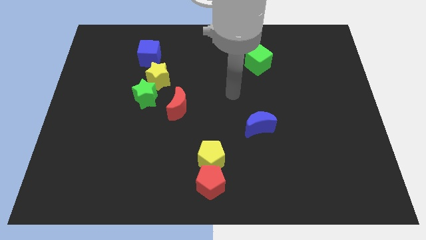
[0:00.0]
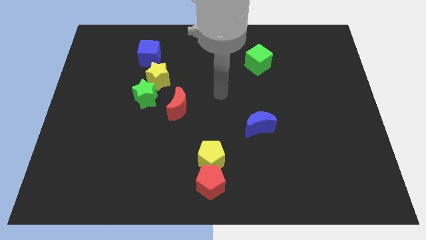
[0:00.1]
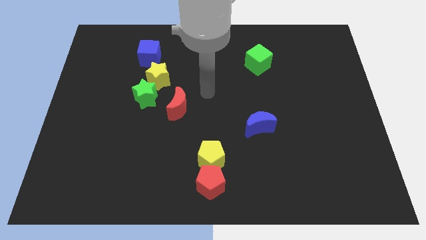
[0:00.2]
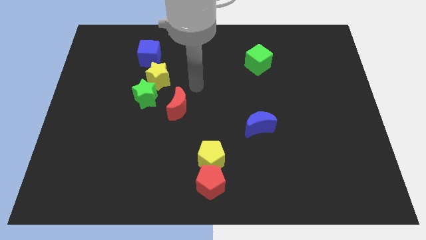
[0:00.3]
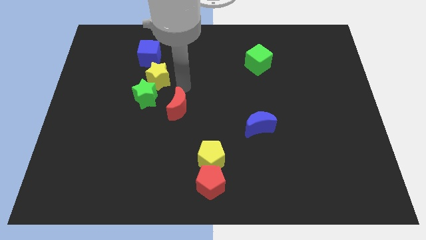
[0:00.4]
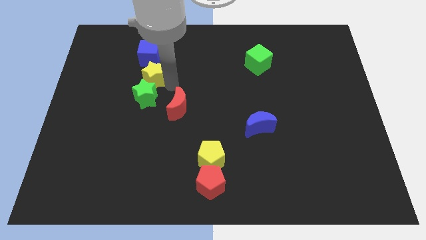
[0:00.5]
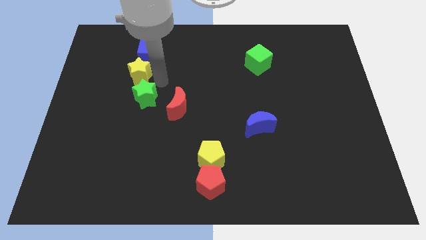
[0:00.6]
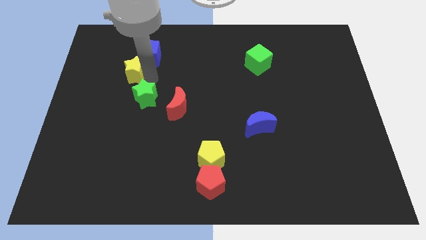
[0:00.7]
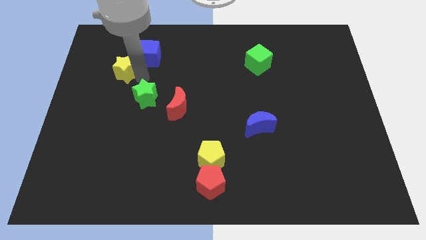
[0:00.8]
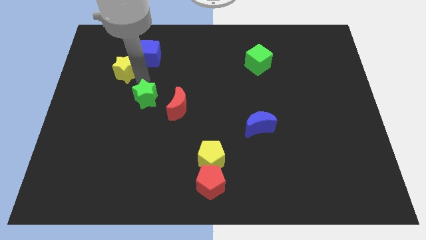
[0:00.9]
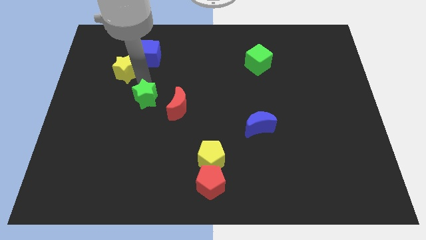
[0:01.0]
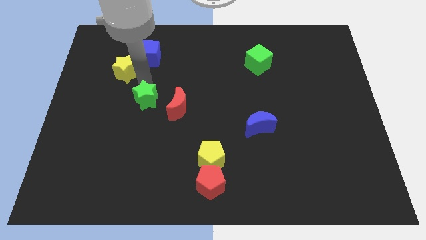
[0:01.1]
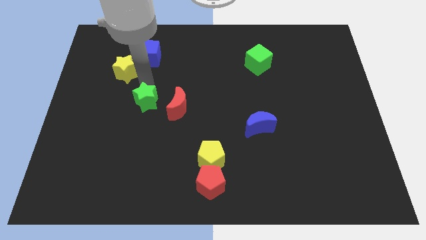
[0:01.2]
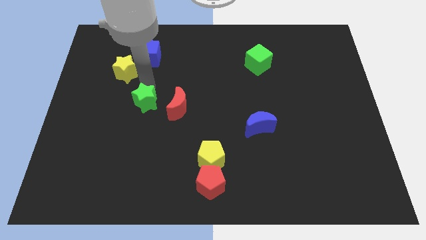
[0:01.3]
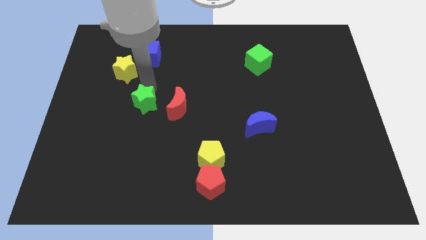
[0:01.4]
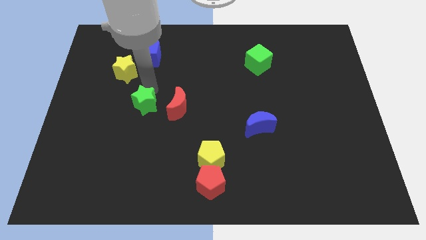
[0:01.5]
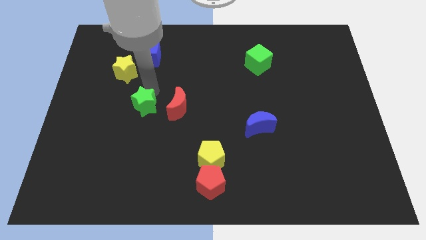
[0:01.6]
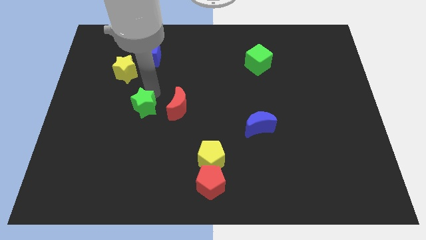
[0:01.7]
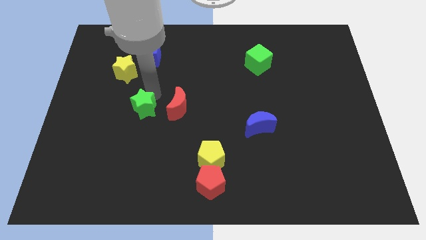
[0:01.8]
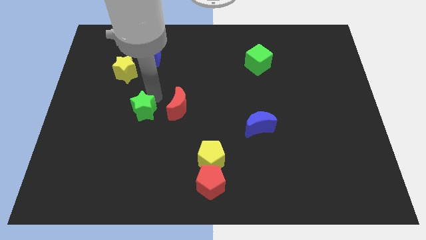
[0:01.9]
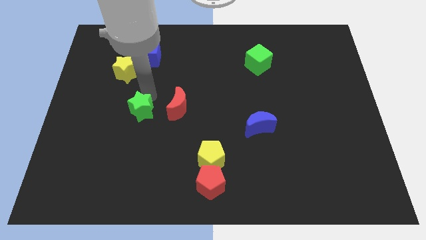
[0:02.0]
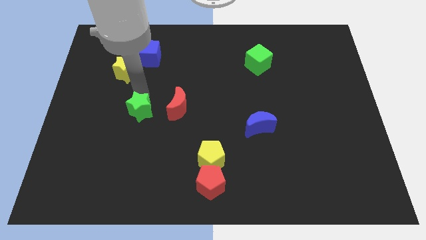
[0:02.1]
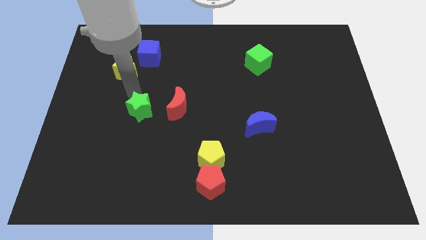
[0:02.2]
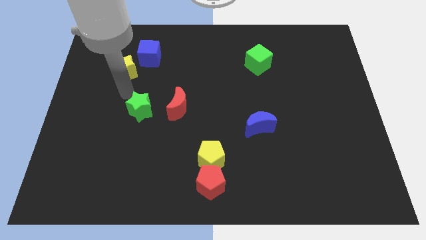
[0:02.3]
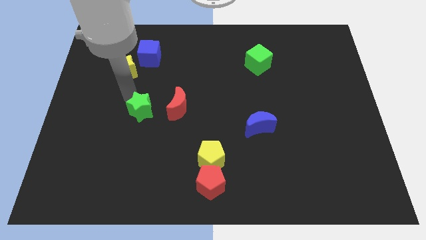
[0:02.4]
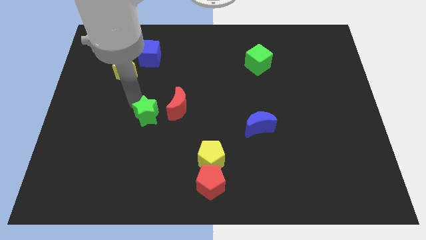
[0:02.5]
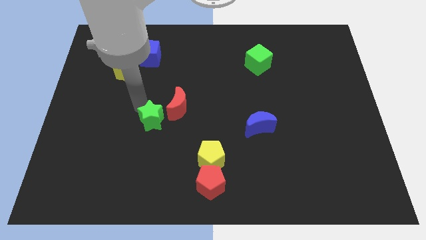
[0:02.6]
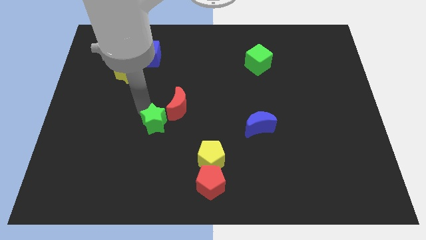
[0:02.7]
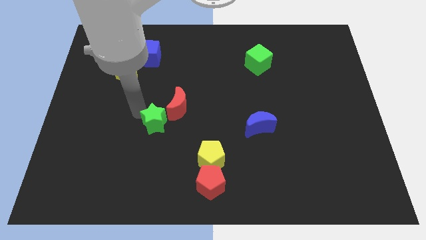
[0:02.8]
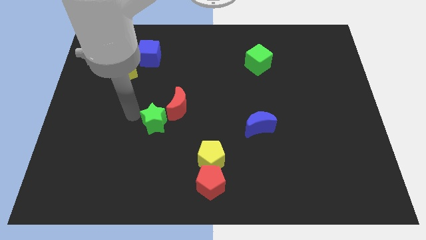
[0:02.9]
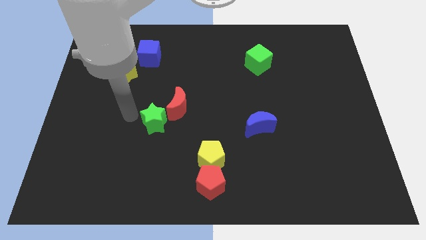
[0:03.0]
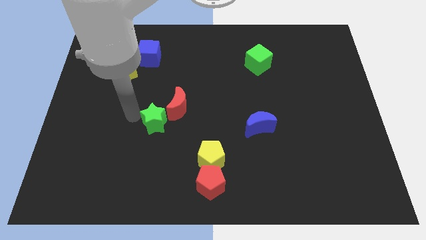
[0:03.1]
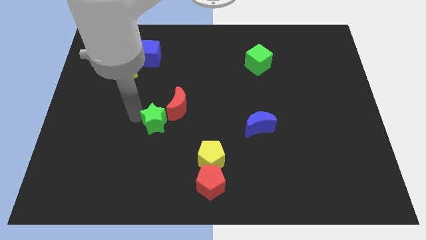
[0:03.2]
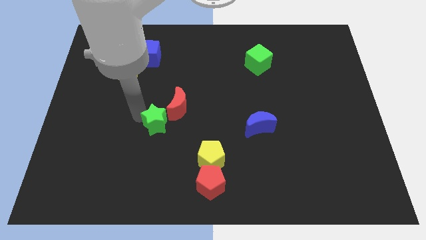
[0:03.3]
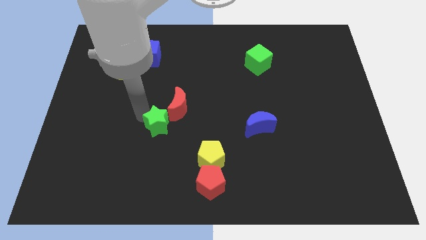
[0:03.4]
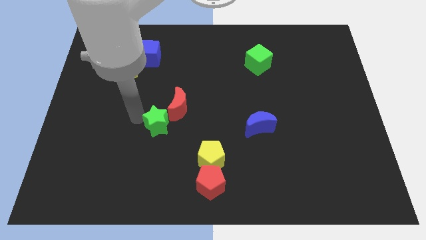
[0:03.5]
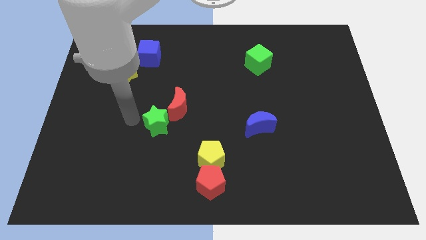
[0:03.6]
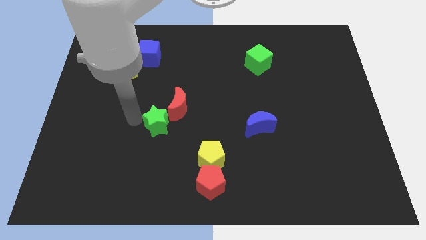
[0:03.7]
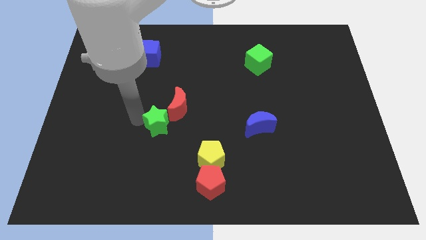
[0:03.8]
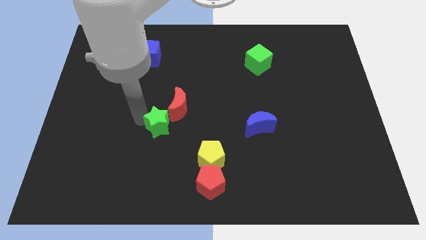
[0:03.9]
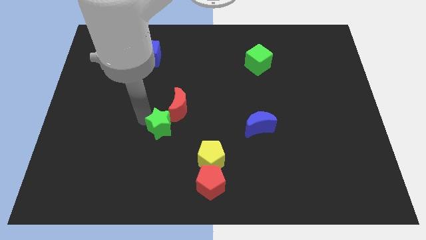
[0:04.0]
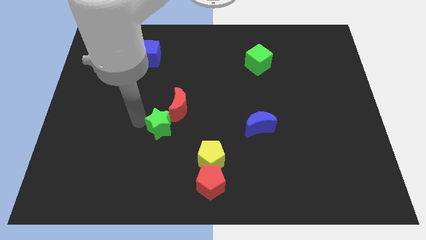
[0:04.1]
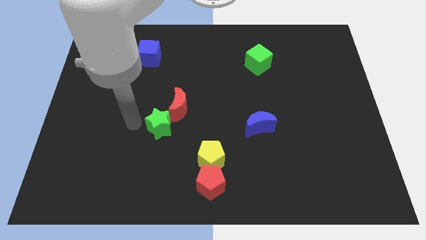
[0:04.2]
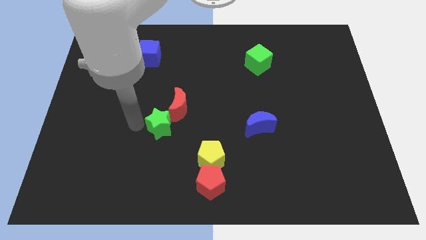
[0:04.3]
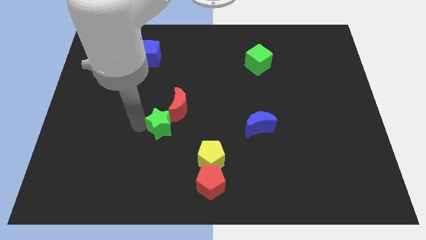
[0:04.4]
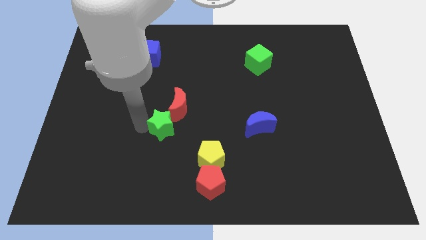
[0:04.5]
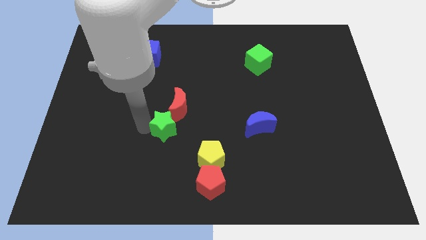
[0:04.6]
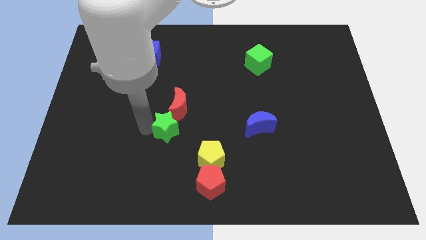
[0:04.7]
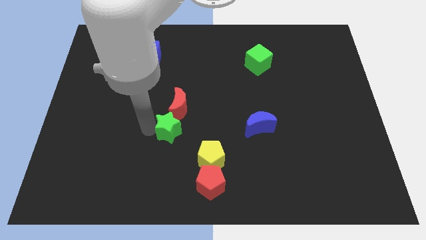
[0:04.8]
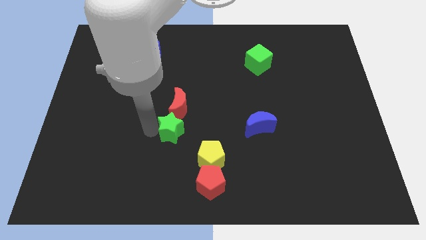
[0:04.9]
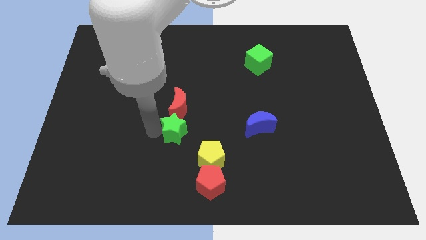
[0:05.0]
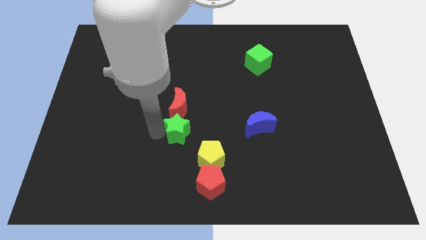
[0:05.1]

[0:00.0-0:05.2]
slide the green star to the bottom right of the red moon

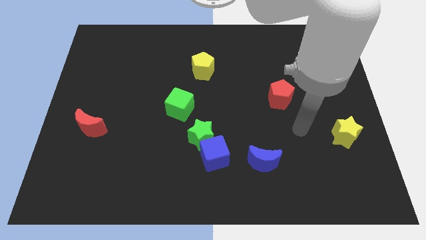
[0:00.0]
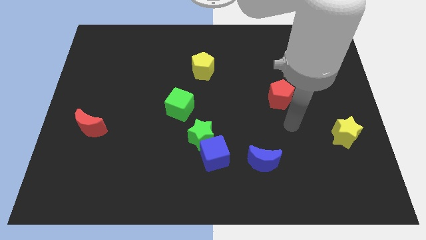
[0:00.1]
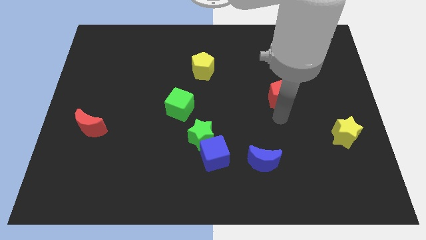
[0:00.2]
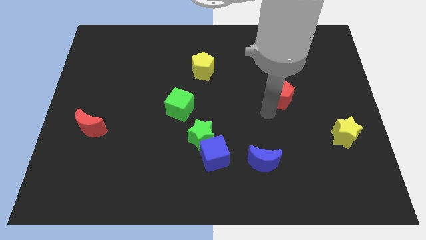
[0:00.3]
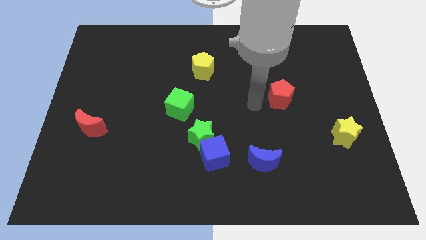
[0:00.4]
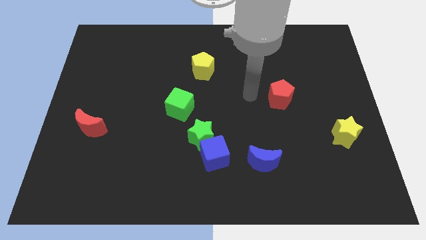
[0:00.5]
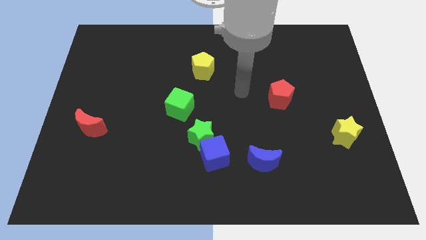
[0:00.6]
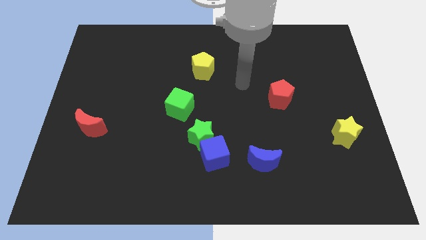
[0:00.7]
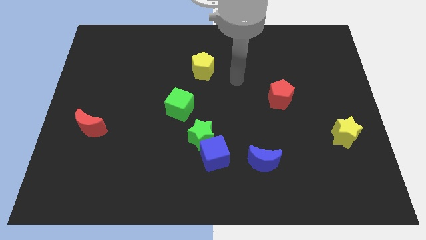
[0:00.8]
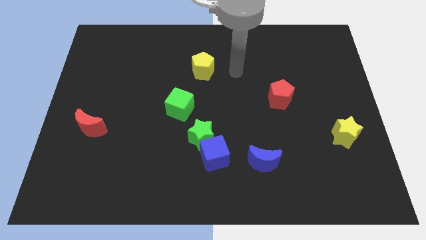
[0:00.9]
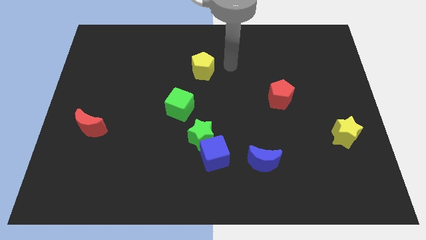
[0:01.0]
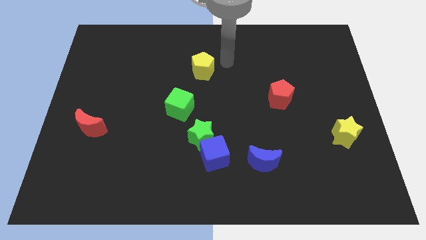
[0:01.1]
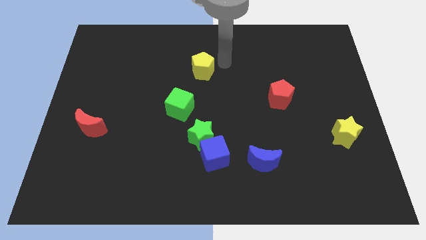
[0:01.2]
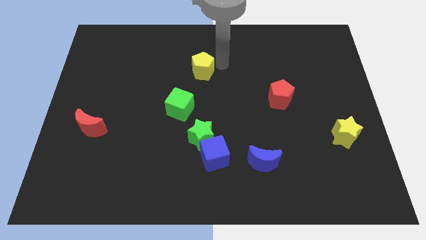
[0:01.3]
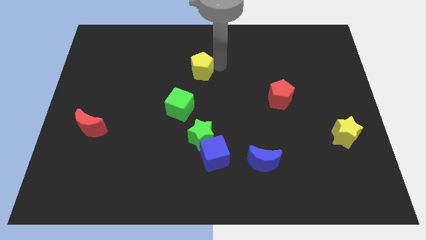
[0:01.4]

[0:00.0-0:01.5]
slide the yellow pentagon above the green cube
